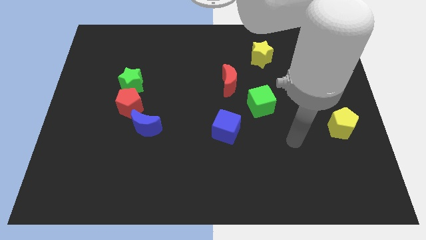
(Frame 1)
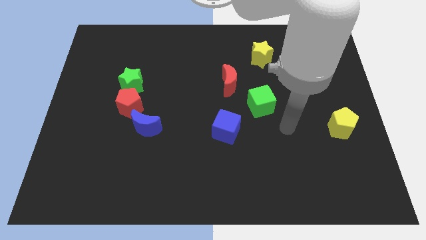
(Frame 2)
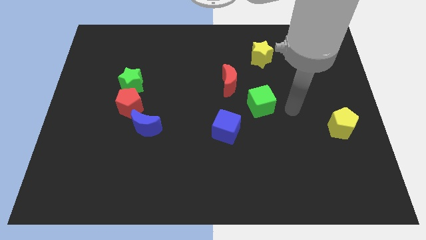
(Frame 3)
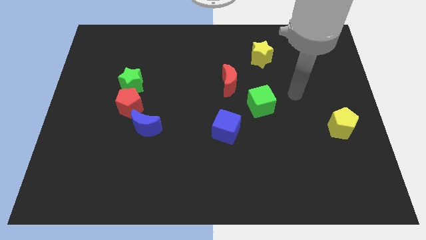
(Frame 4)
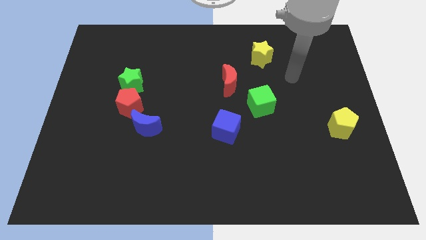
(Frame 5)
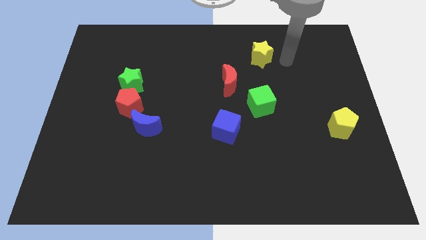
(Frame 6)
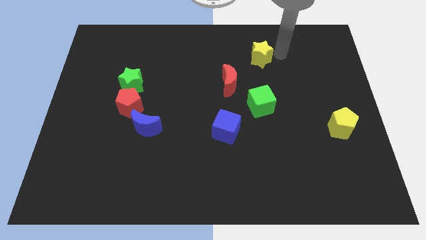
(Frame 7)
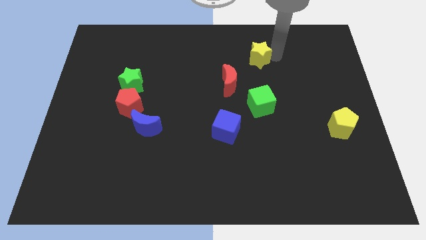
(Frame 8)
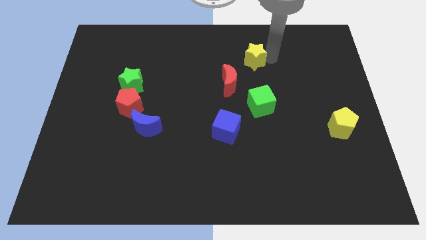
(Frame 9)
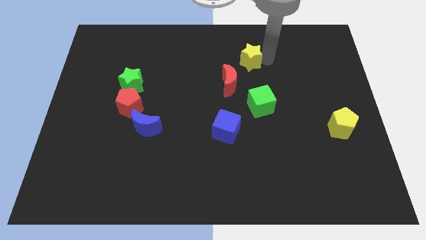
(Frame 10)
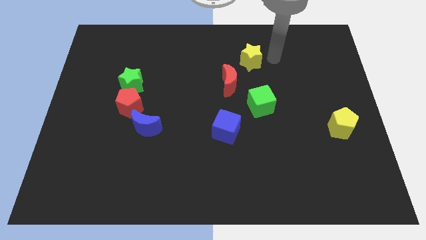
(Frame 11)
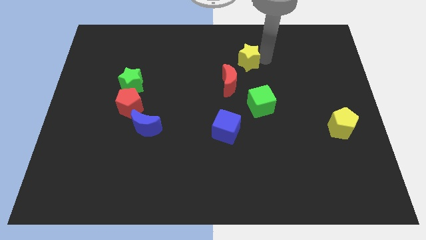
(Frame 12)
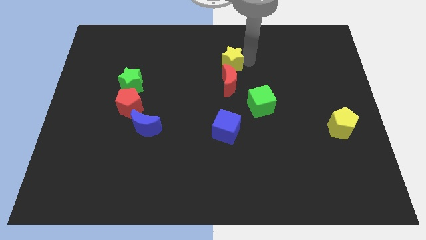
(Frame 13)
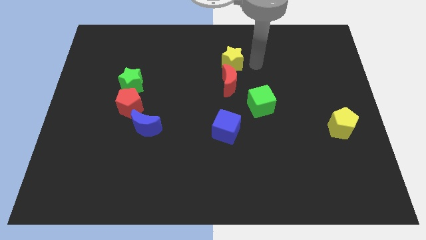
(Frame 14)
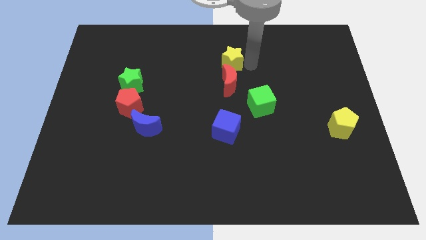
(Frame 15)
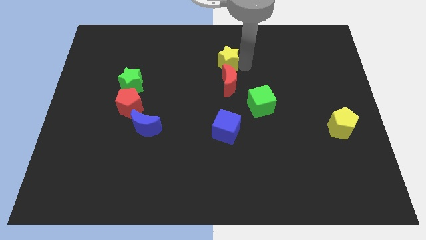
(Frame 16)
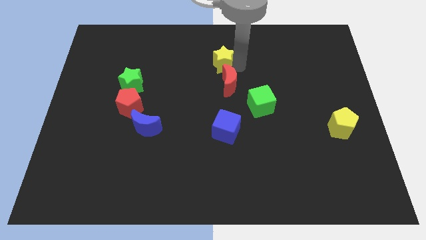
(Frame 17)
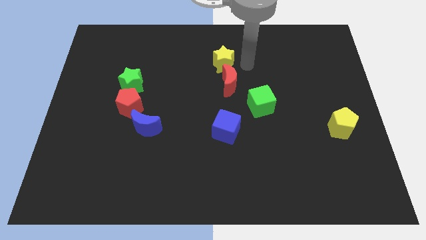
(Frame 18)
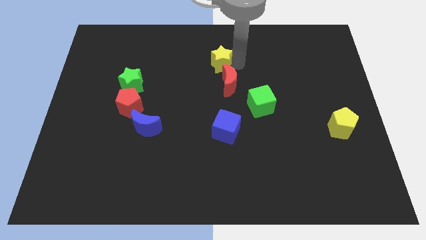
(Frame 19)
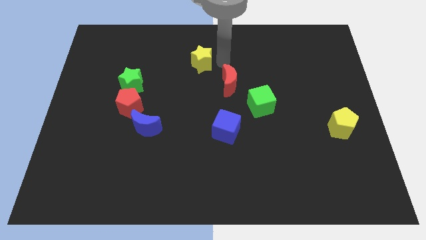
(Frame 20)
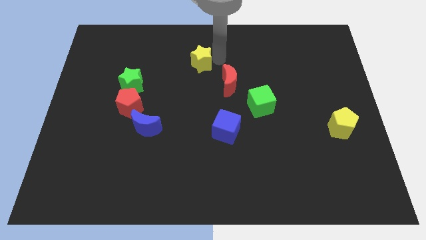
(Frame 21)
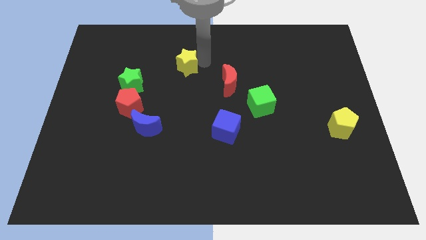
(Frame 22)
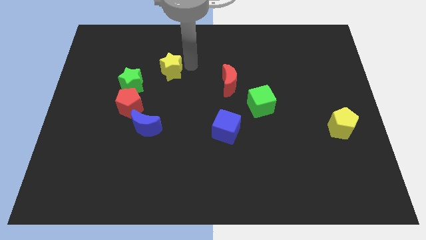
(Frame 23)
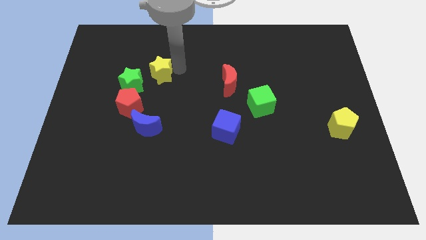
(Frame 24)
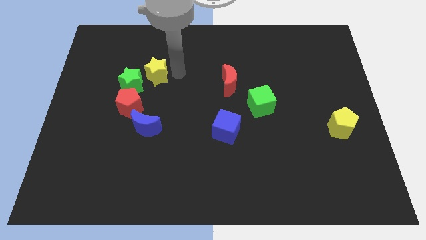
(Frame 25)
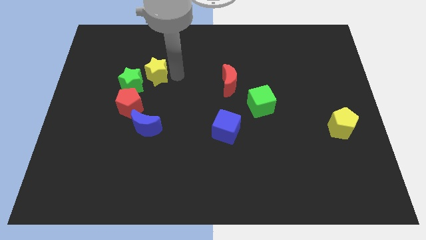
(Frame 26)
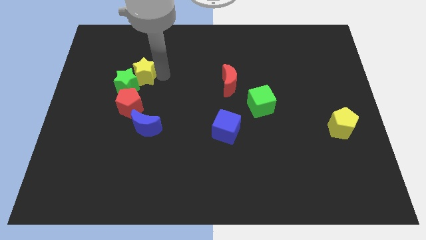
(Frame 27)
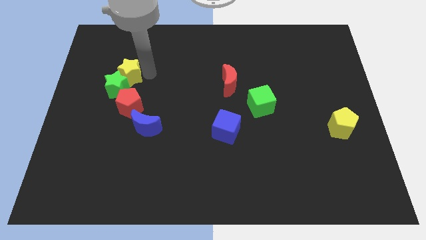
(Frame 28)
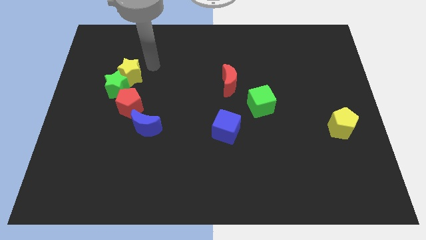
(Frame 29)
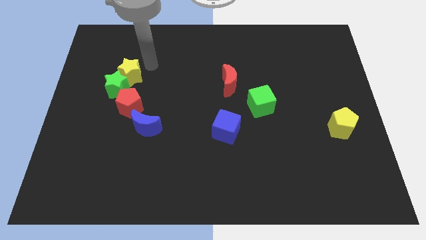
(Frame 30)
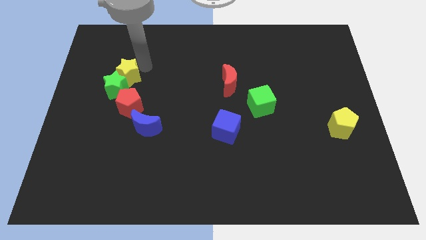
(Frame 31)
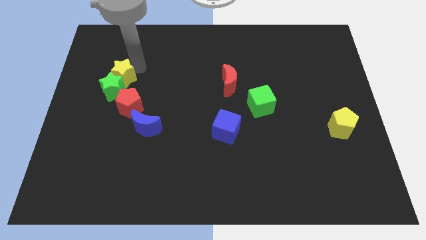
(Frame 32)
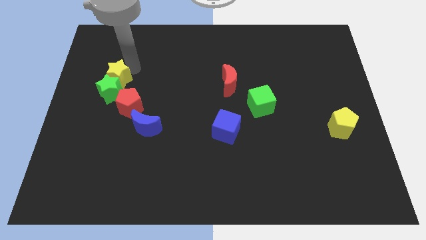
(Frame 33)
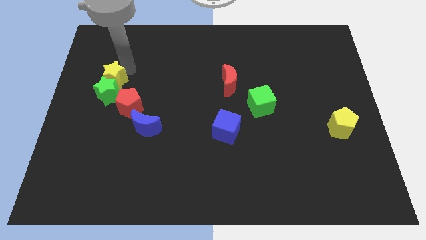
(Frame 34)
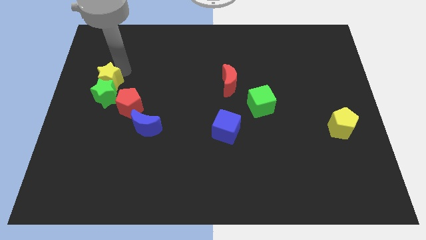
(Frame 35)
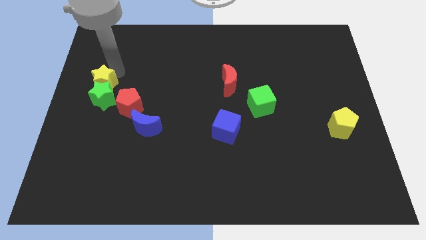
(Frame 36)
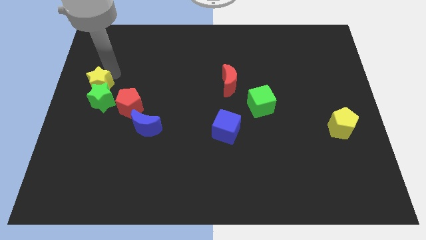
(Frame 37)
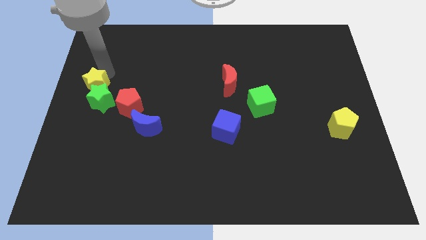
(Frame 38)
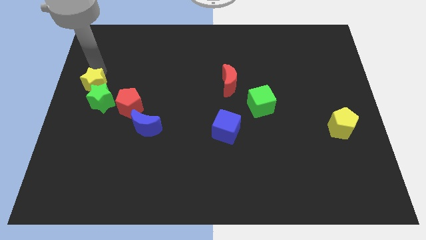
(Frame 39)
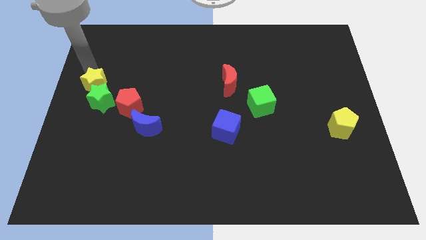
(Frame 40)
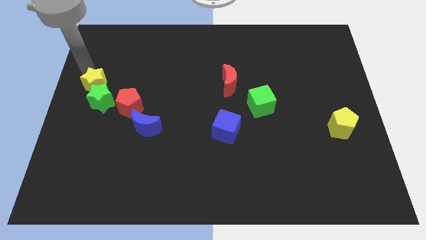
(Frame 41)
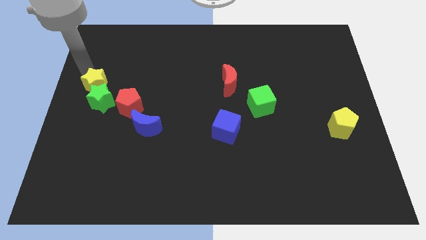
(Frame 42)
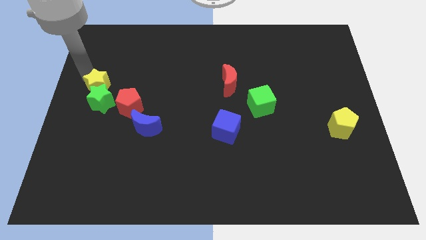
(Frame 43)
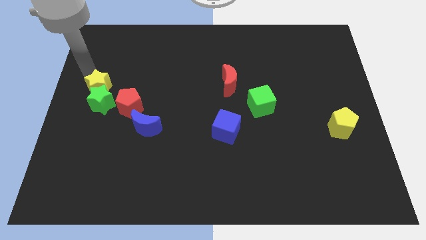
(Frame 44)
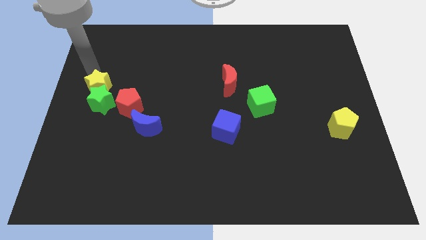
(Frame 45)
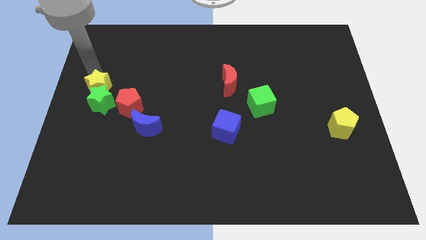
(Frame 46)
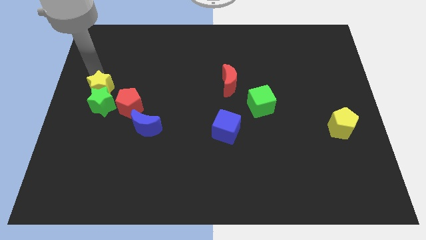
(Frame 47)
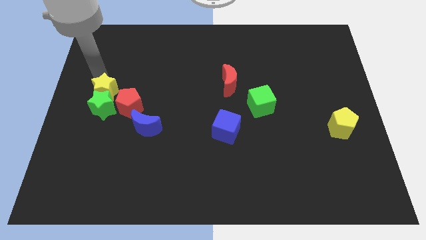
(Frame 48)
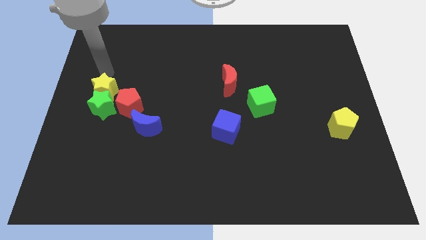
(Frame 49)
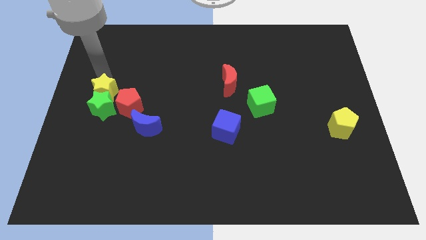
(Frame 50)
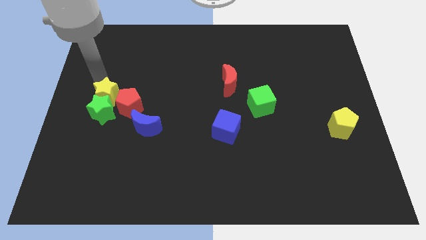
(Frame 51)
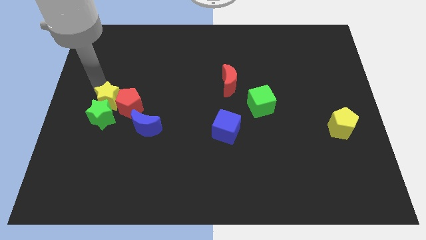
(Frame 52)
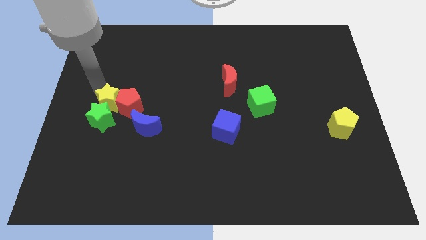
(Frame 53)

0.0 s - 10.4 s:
slide the yellow star to the bottom left side of the red pentagon

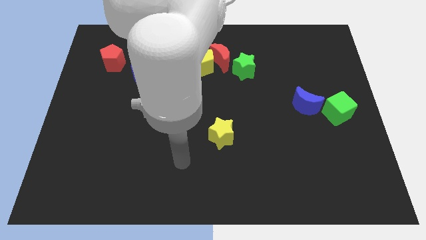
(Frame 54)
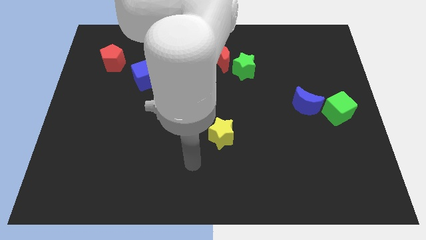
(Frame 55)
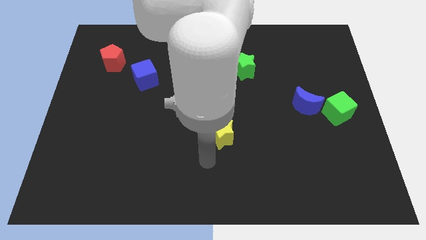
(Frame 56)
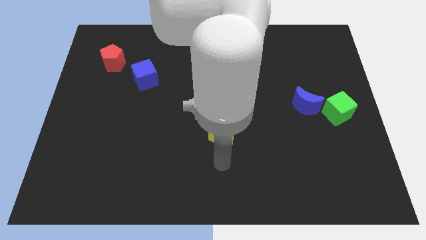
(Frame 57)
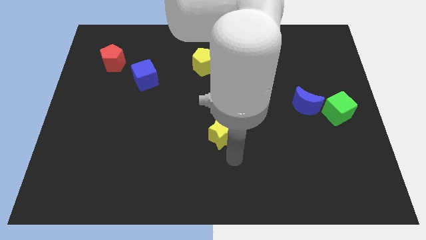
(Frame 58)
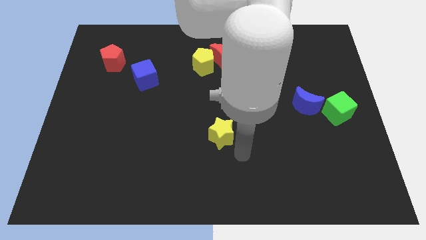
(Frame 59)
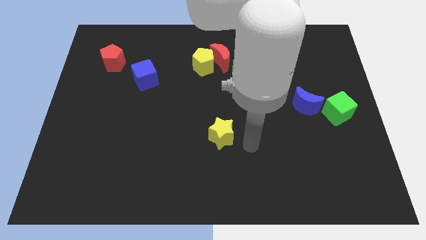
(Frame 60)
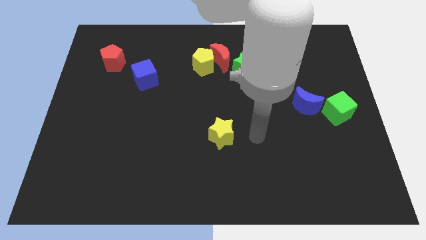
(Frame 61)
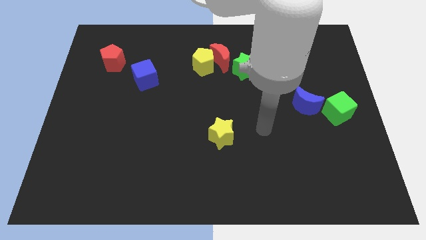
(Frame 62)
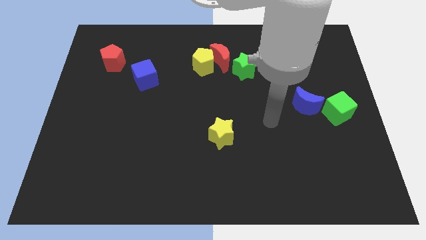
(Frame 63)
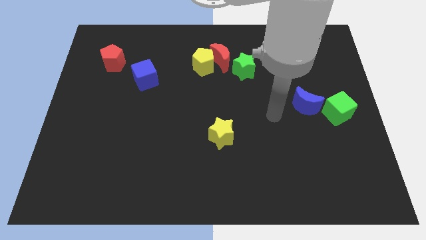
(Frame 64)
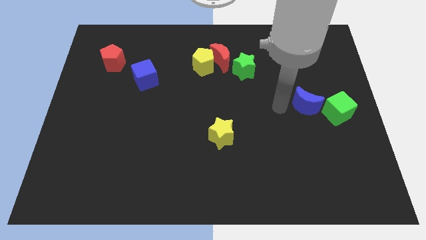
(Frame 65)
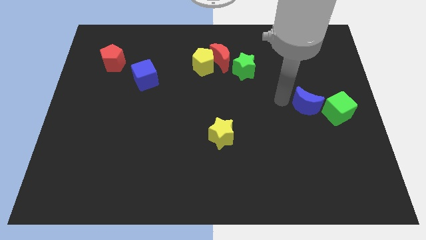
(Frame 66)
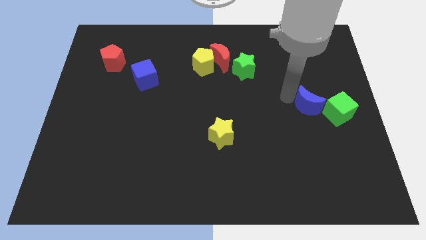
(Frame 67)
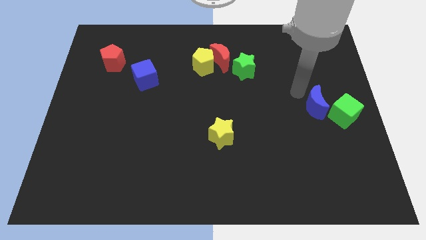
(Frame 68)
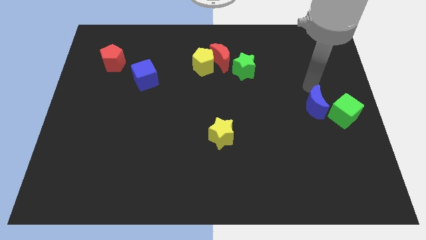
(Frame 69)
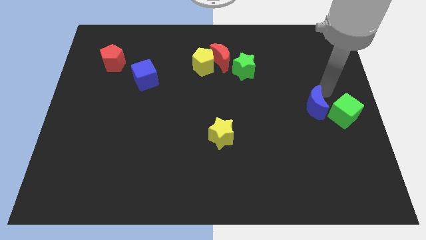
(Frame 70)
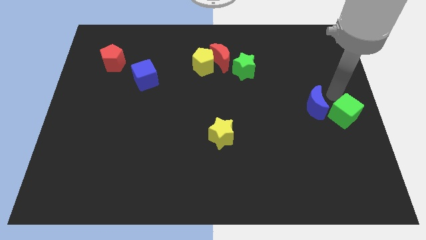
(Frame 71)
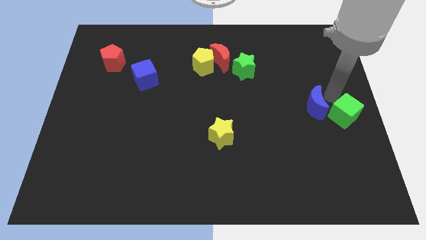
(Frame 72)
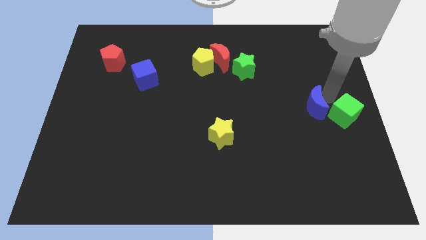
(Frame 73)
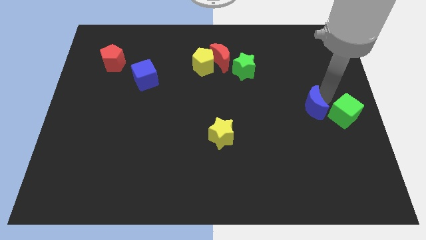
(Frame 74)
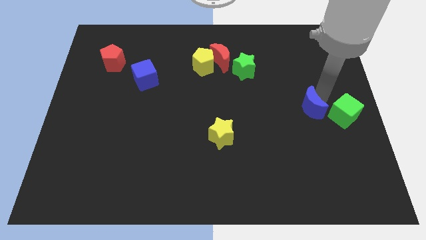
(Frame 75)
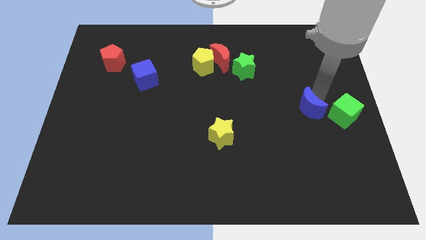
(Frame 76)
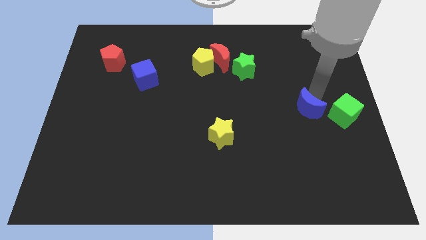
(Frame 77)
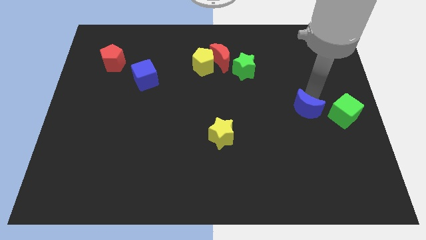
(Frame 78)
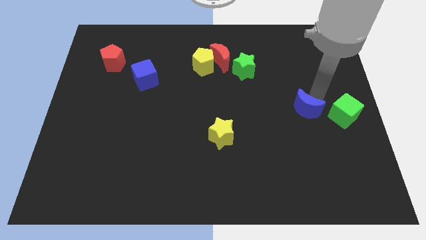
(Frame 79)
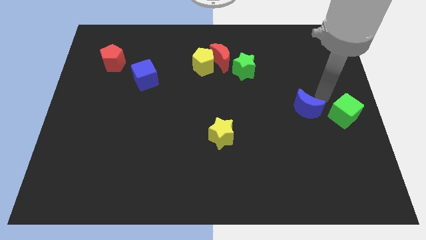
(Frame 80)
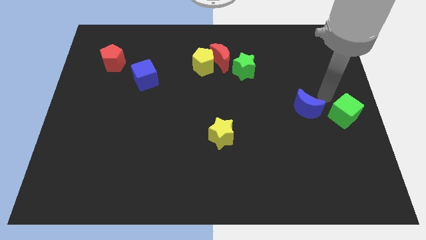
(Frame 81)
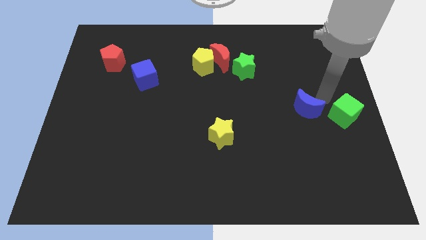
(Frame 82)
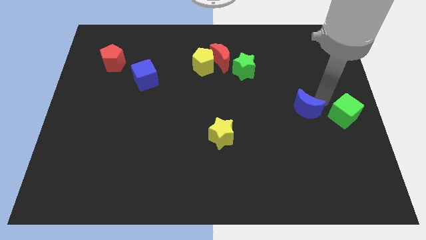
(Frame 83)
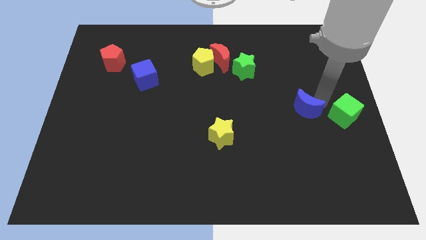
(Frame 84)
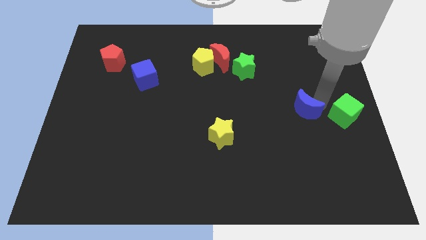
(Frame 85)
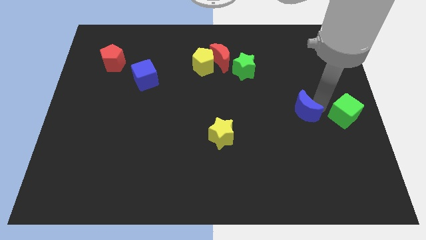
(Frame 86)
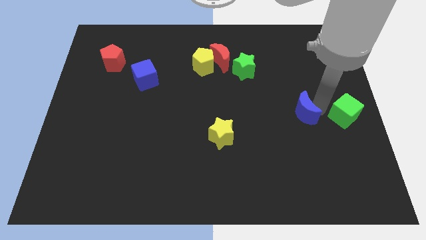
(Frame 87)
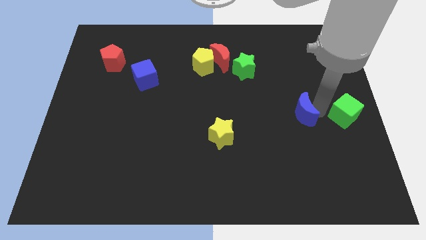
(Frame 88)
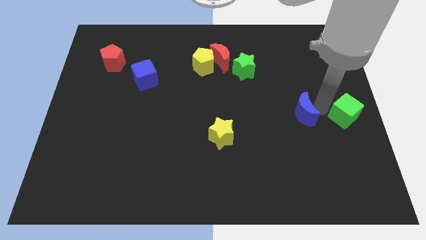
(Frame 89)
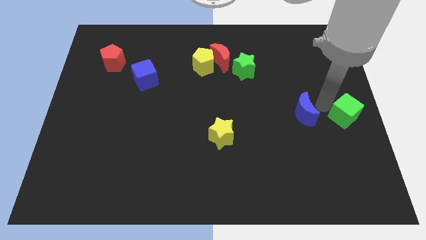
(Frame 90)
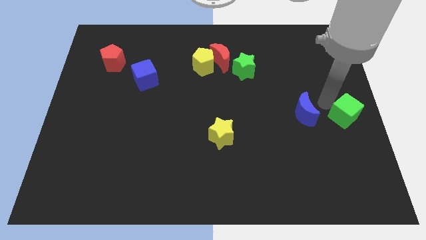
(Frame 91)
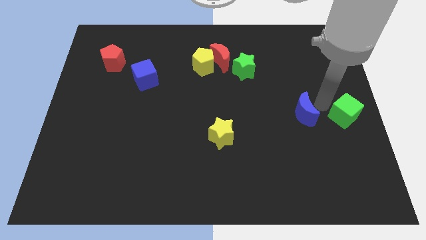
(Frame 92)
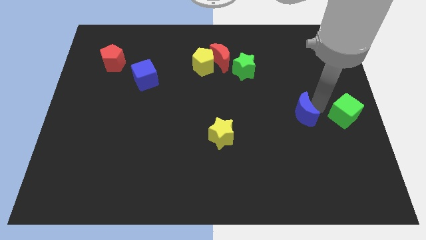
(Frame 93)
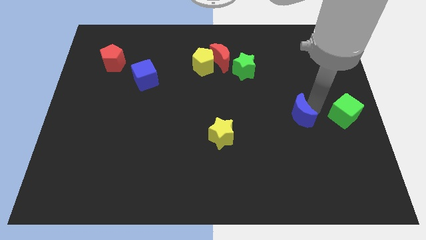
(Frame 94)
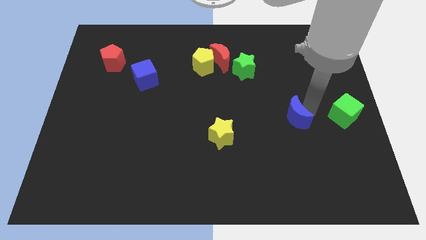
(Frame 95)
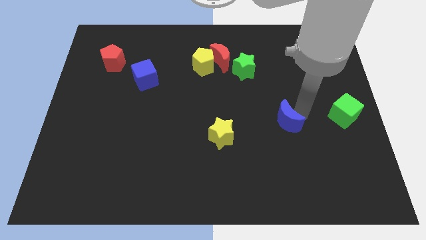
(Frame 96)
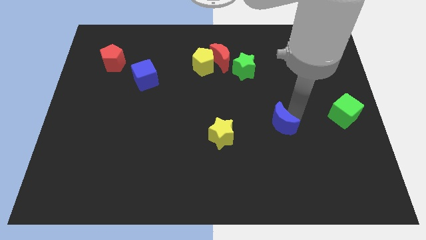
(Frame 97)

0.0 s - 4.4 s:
slide the blue moon just right of the yellow star
